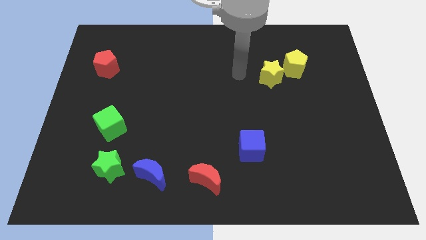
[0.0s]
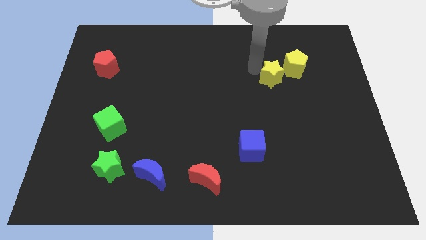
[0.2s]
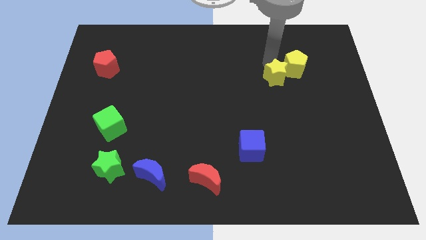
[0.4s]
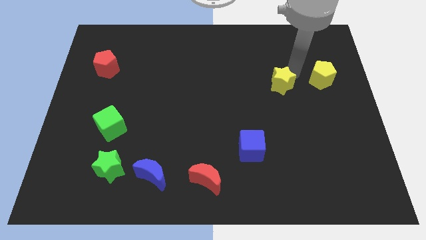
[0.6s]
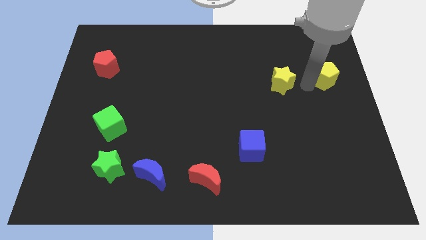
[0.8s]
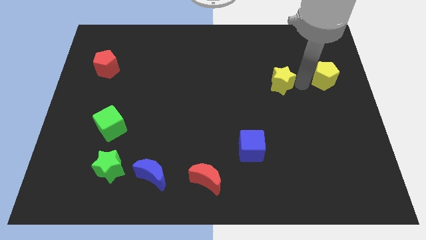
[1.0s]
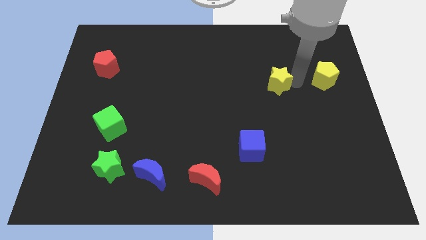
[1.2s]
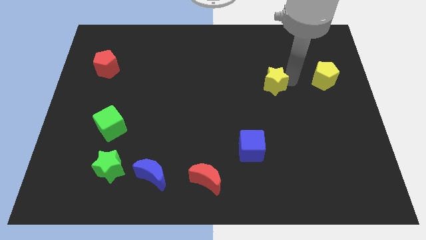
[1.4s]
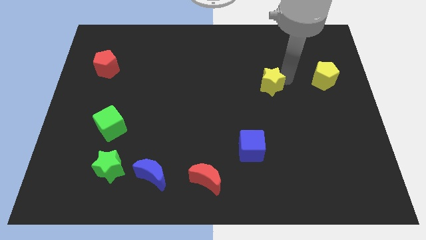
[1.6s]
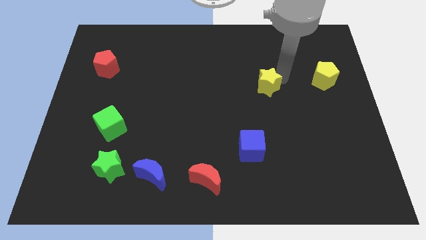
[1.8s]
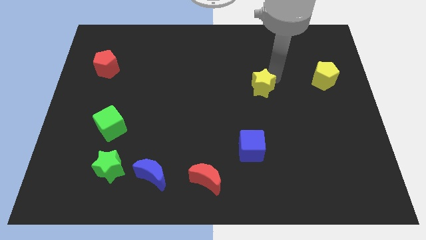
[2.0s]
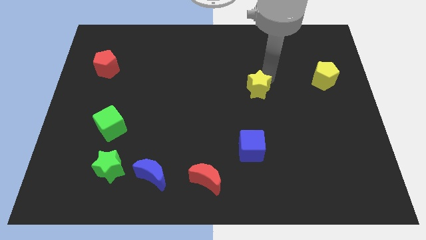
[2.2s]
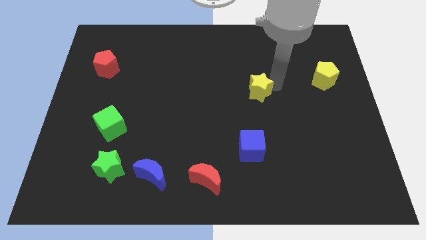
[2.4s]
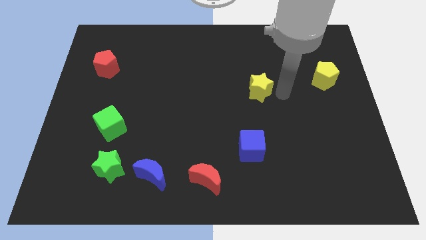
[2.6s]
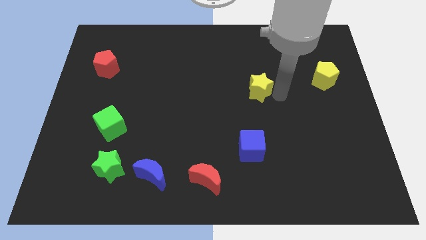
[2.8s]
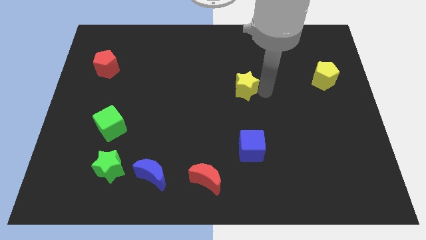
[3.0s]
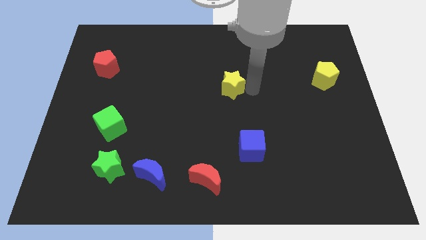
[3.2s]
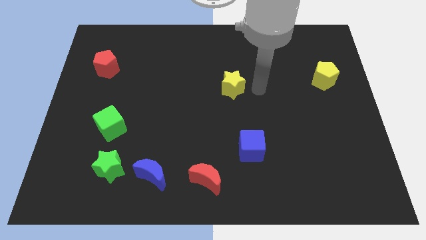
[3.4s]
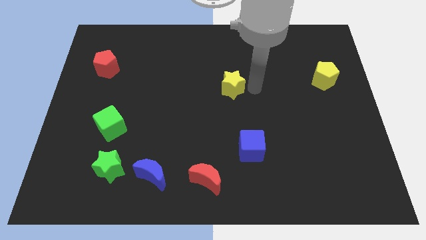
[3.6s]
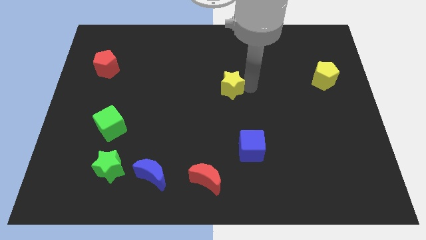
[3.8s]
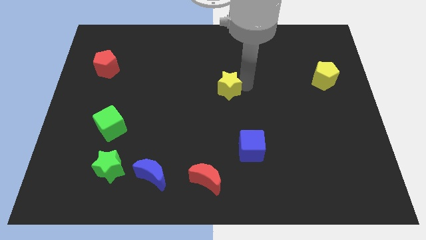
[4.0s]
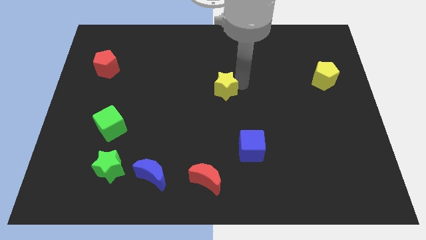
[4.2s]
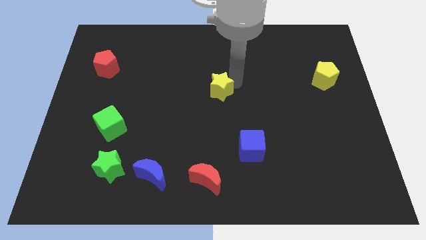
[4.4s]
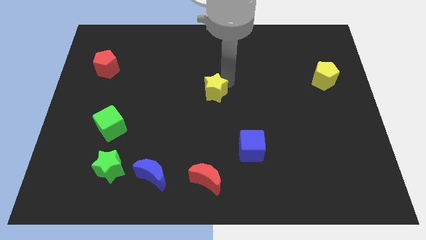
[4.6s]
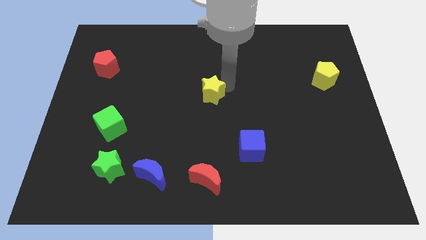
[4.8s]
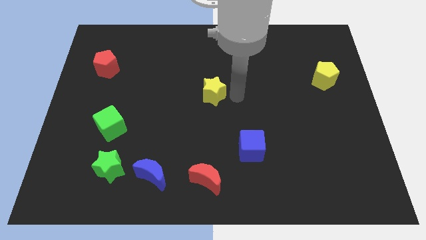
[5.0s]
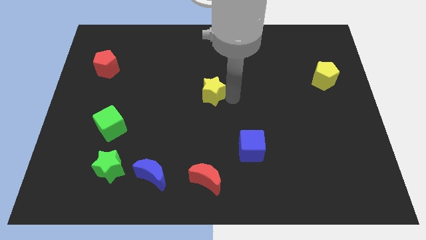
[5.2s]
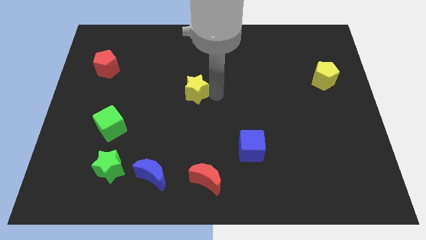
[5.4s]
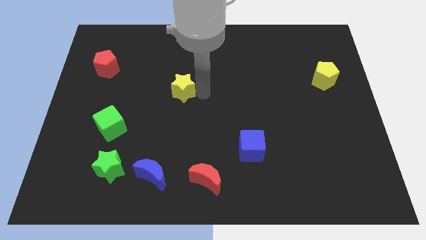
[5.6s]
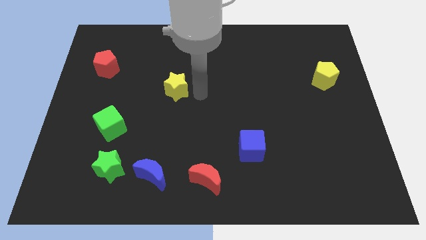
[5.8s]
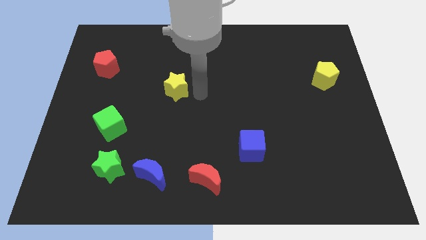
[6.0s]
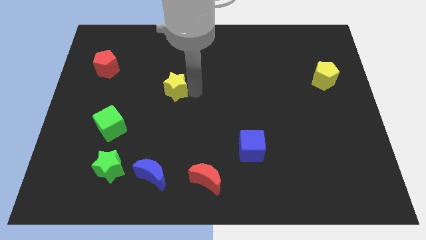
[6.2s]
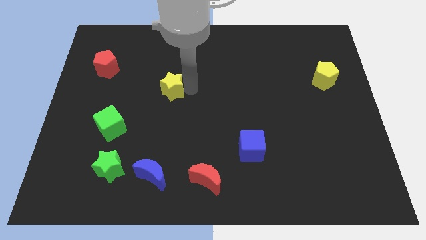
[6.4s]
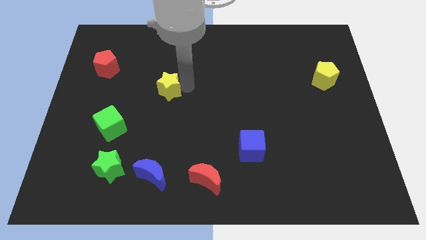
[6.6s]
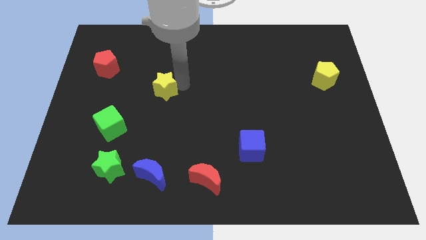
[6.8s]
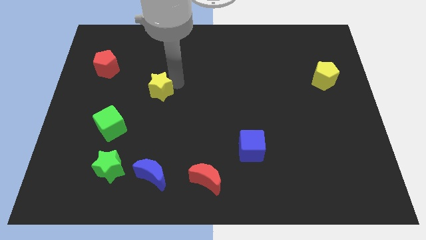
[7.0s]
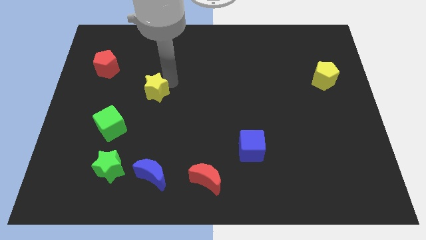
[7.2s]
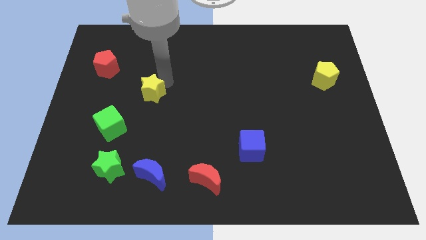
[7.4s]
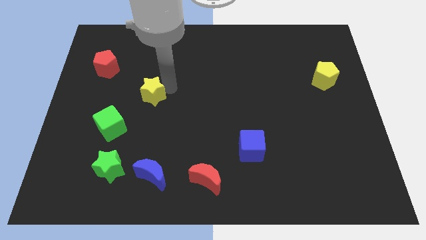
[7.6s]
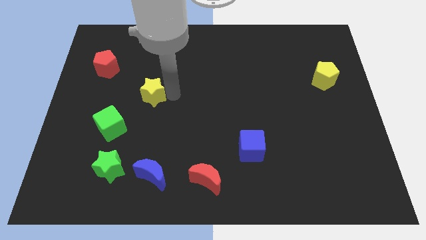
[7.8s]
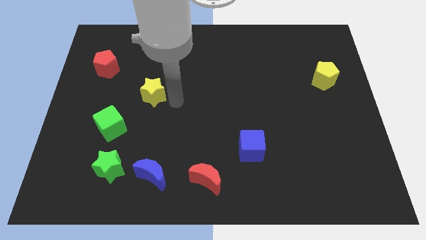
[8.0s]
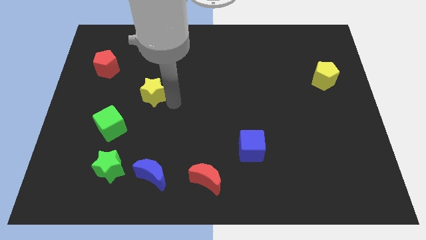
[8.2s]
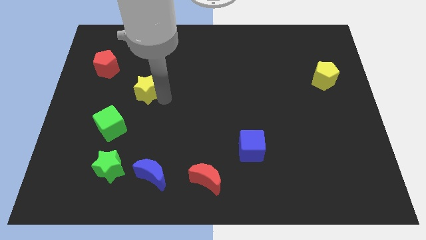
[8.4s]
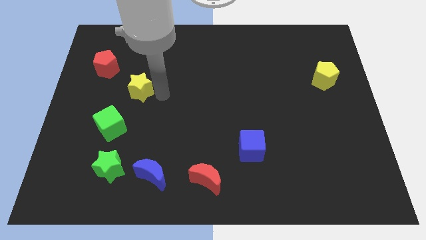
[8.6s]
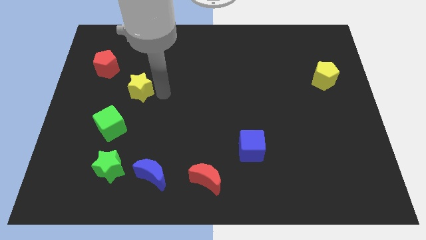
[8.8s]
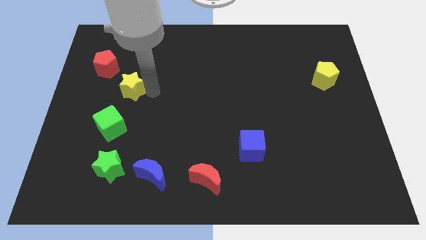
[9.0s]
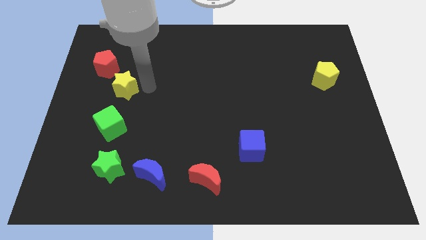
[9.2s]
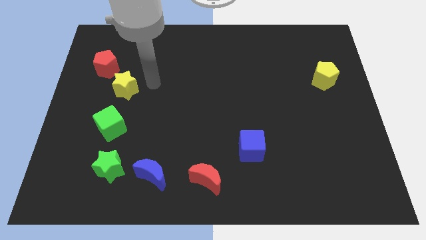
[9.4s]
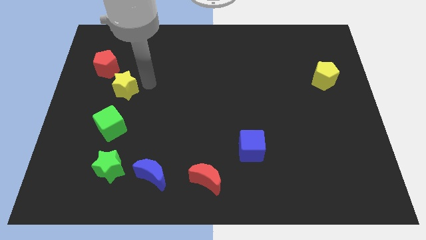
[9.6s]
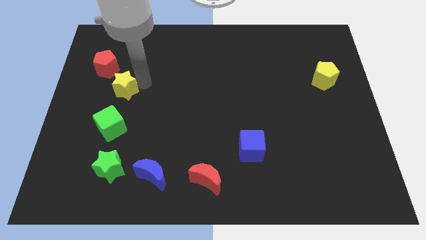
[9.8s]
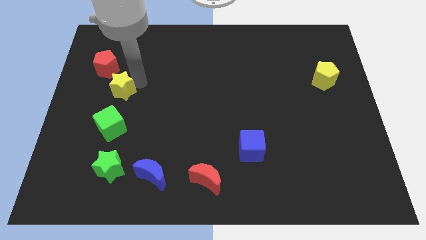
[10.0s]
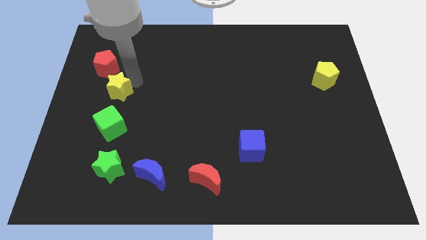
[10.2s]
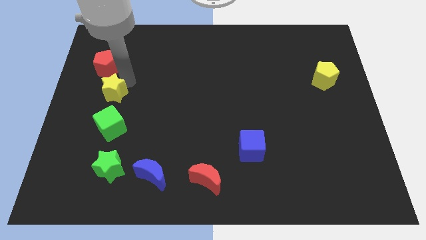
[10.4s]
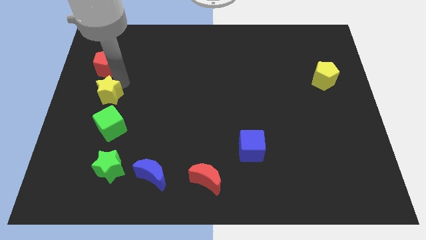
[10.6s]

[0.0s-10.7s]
put the yellow star to the center left

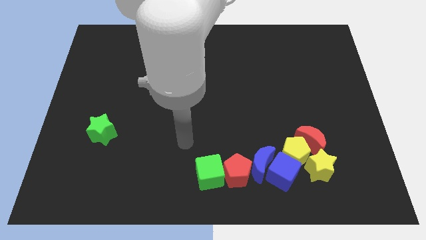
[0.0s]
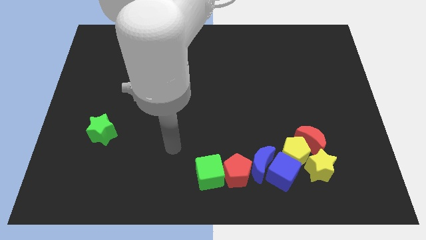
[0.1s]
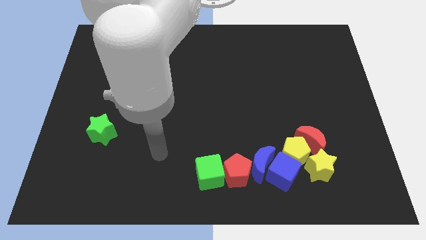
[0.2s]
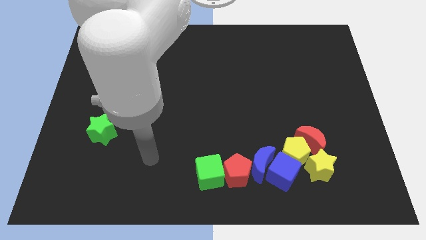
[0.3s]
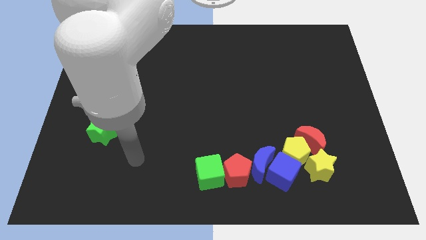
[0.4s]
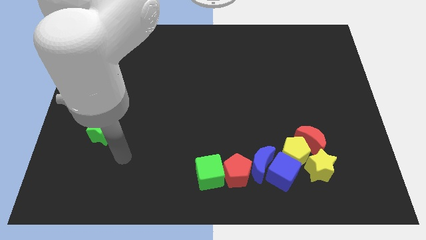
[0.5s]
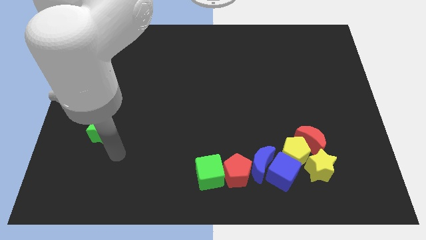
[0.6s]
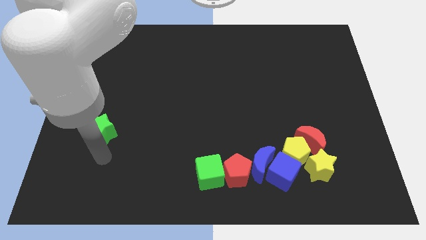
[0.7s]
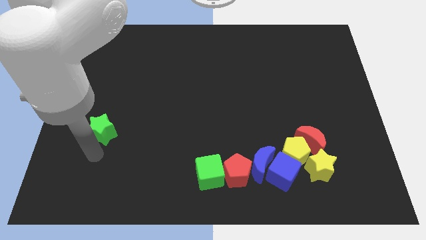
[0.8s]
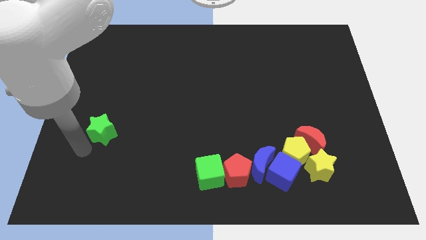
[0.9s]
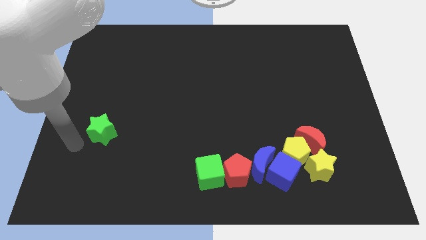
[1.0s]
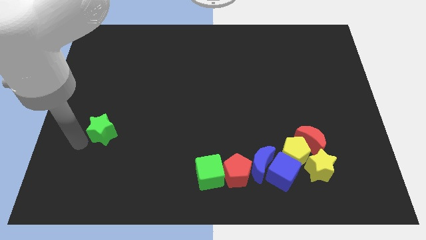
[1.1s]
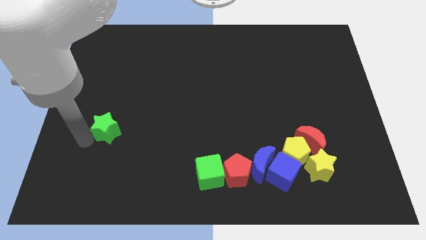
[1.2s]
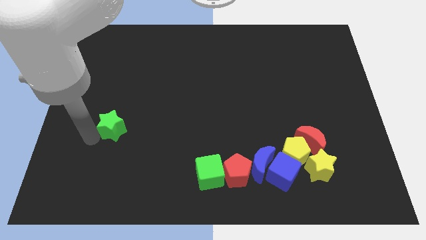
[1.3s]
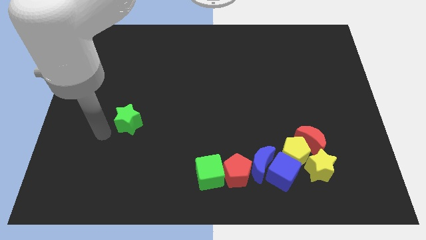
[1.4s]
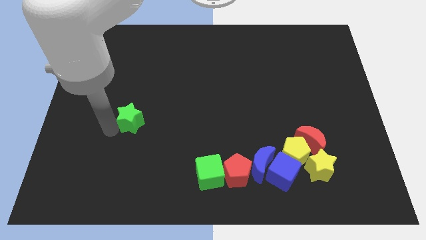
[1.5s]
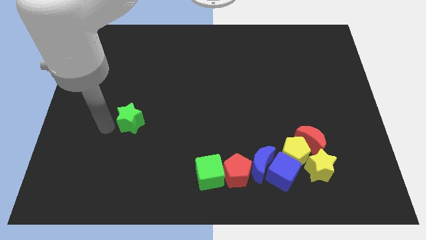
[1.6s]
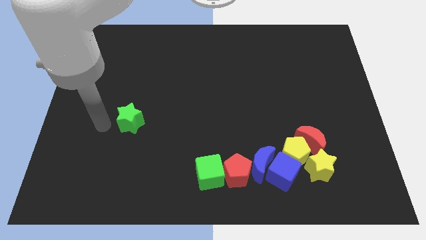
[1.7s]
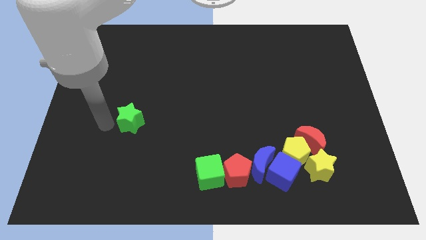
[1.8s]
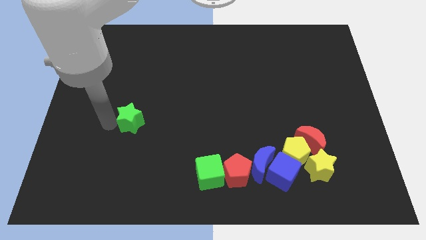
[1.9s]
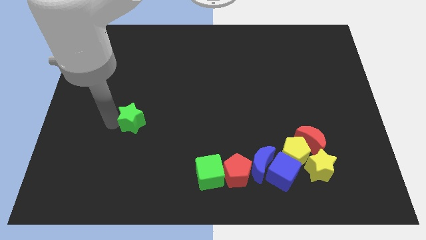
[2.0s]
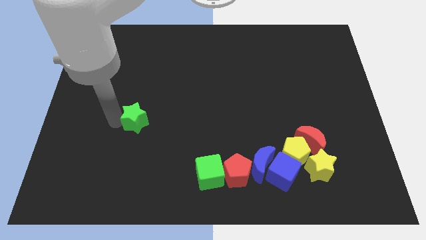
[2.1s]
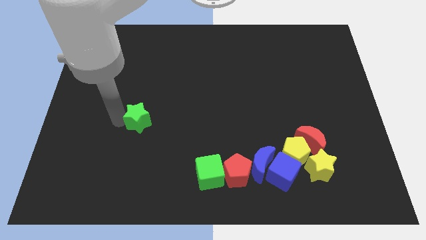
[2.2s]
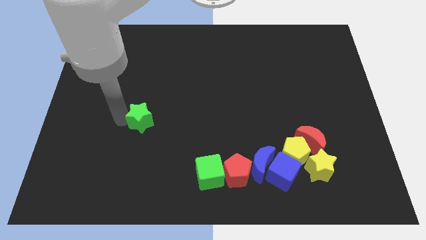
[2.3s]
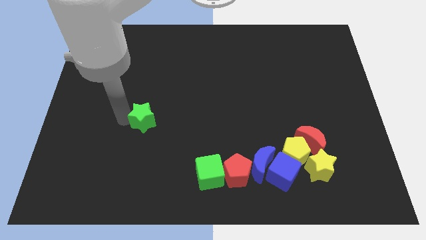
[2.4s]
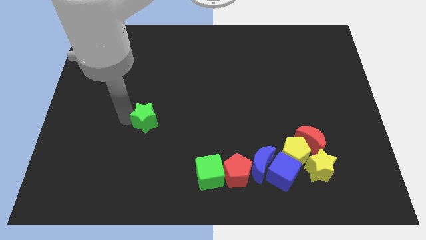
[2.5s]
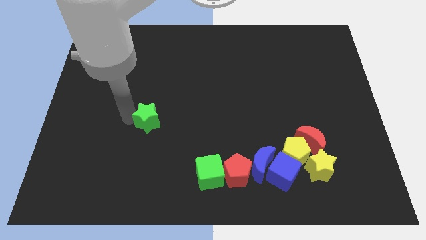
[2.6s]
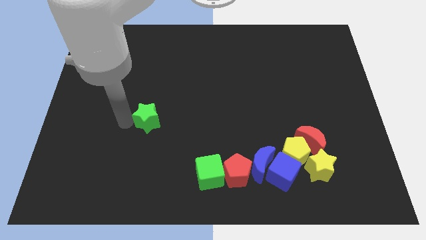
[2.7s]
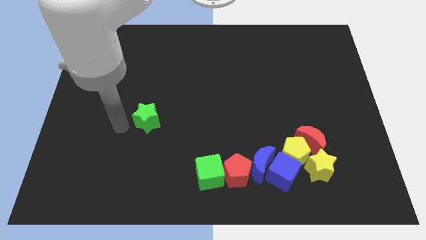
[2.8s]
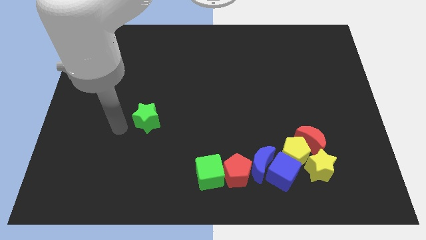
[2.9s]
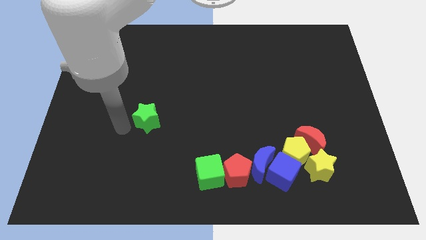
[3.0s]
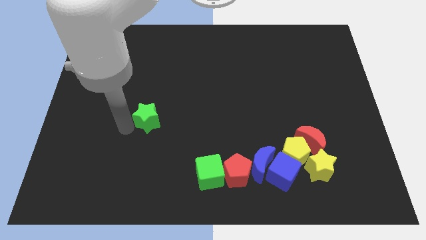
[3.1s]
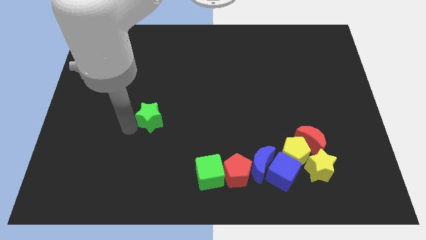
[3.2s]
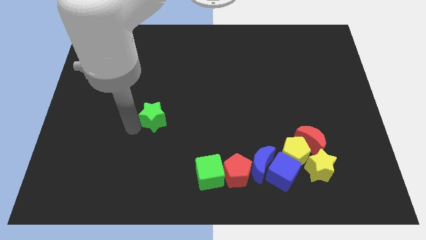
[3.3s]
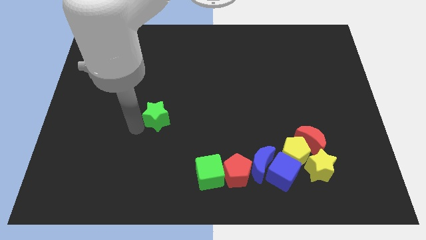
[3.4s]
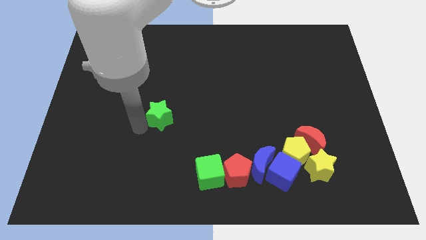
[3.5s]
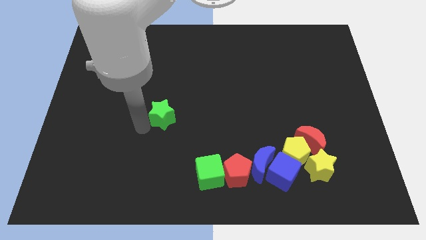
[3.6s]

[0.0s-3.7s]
push the green star to the middle of the board
